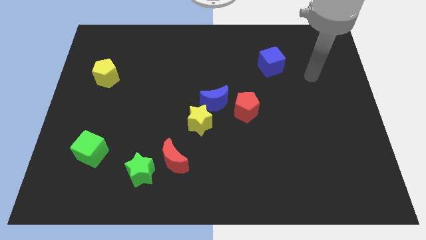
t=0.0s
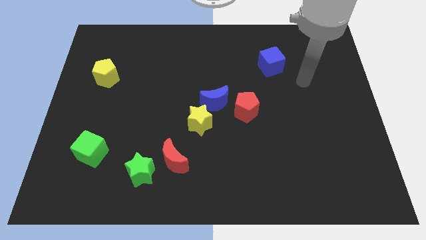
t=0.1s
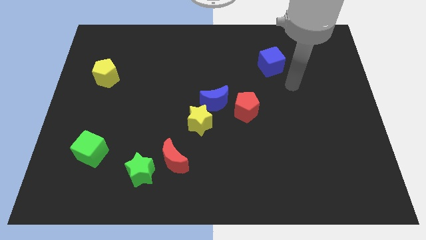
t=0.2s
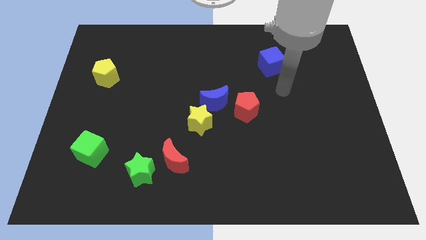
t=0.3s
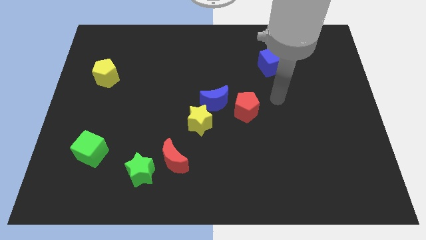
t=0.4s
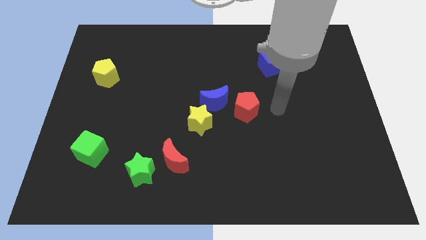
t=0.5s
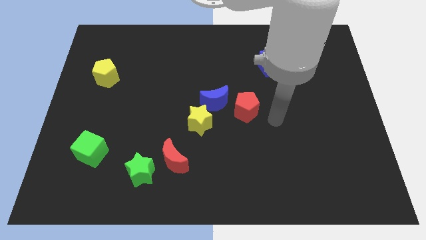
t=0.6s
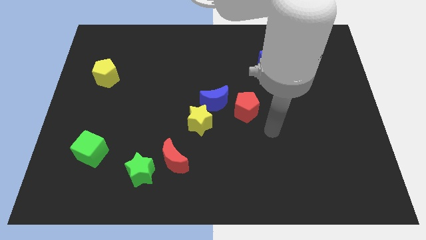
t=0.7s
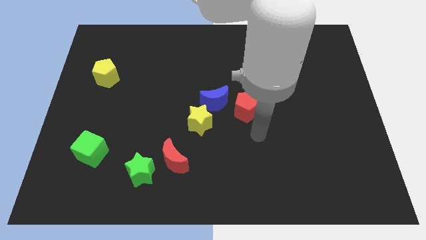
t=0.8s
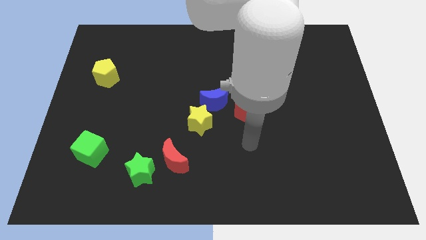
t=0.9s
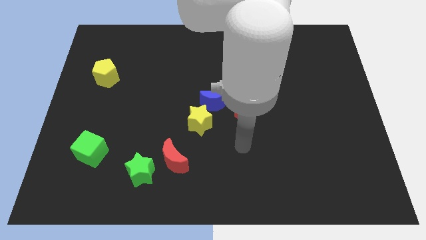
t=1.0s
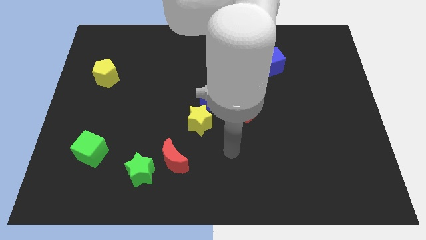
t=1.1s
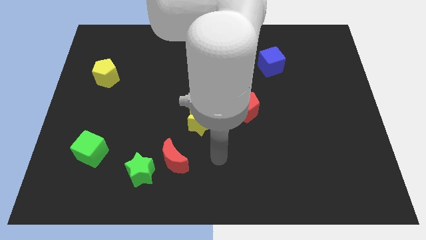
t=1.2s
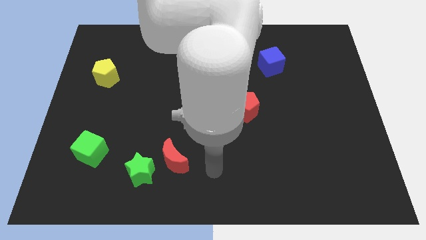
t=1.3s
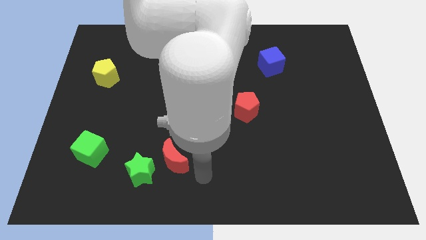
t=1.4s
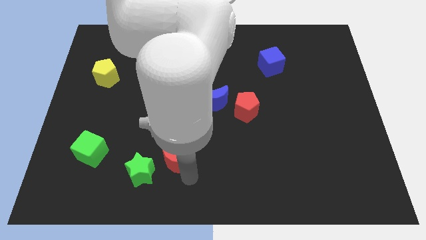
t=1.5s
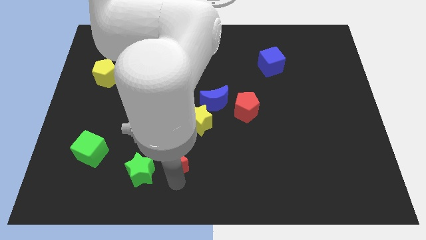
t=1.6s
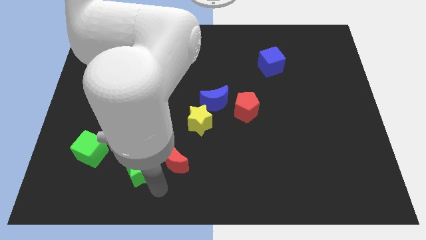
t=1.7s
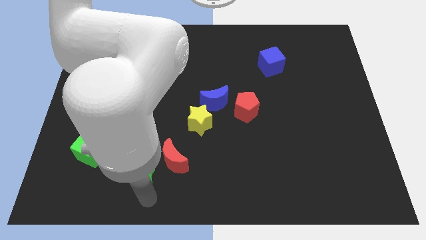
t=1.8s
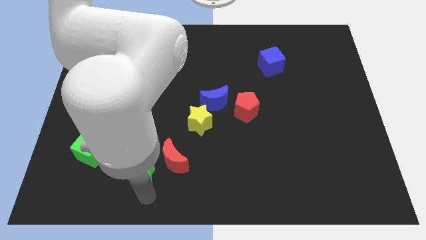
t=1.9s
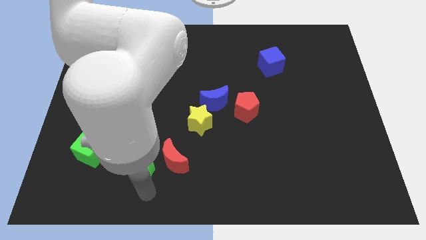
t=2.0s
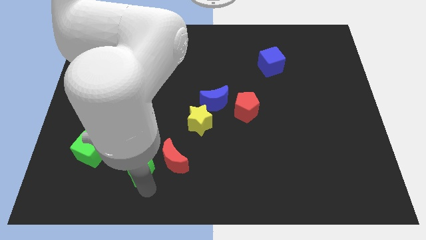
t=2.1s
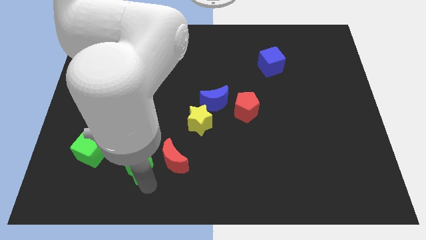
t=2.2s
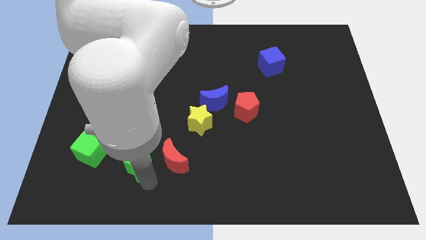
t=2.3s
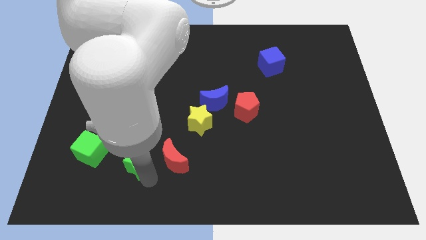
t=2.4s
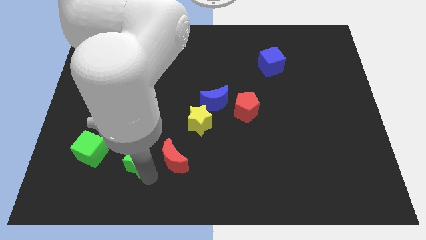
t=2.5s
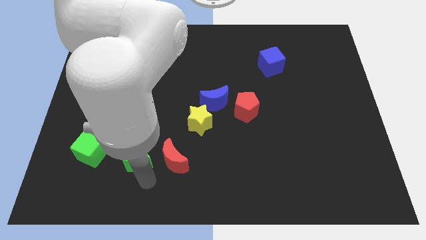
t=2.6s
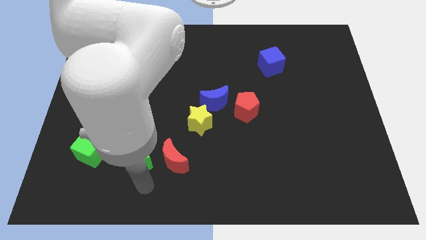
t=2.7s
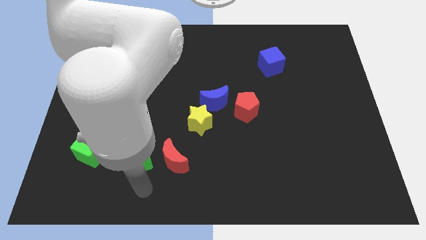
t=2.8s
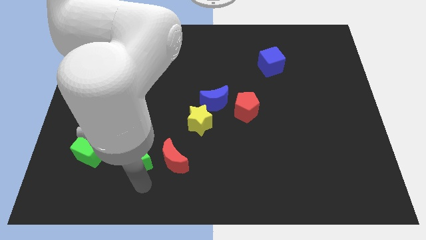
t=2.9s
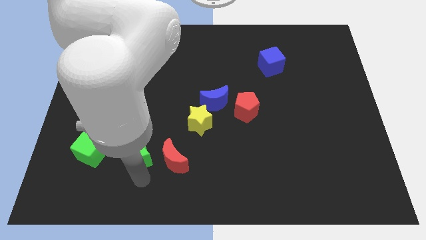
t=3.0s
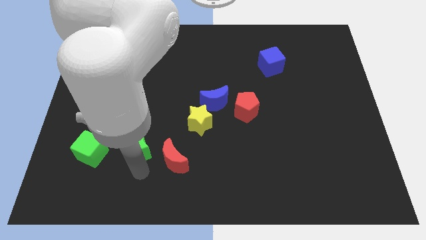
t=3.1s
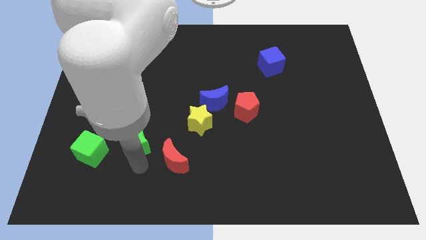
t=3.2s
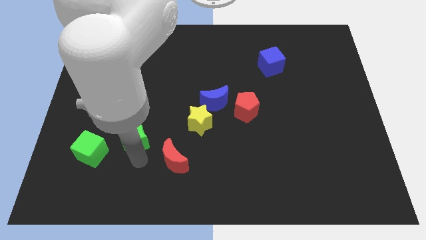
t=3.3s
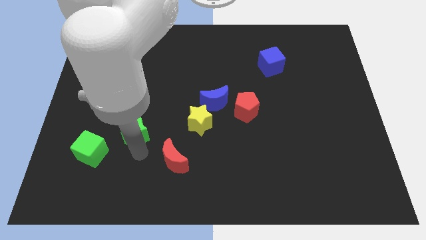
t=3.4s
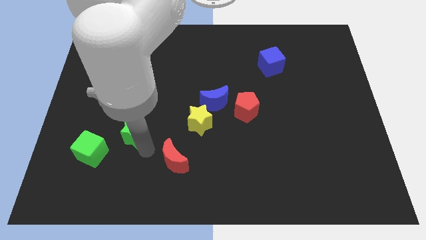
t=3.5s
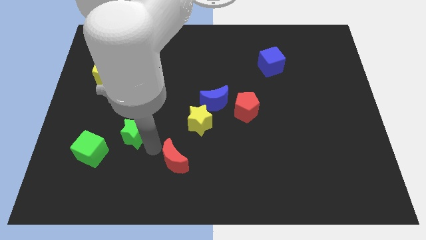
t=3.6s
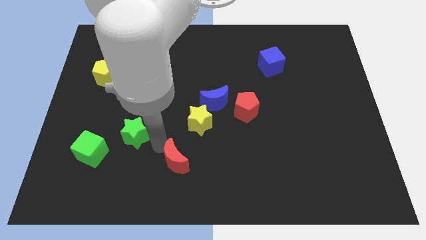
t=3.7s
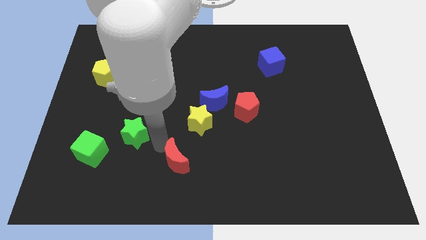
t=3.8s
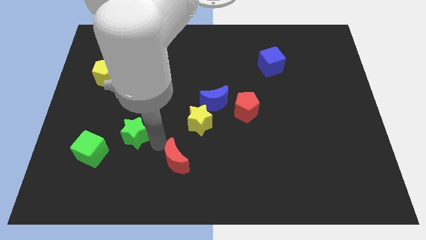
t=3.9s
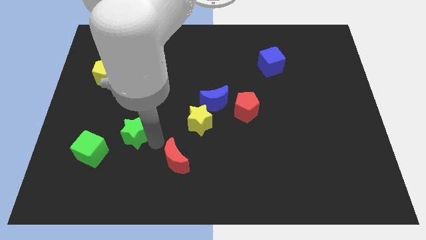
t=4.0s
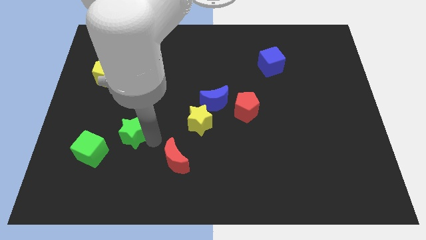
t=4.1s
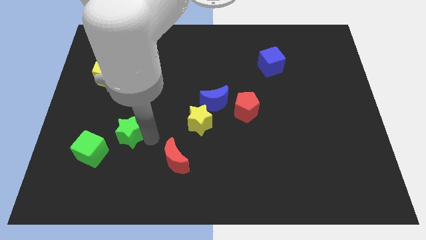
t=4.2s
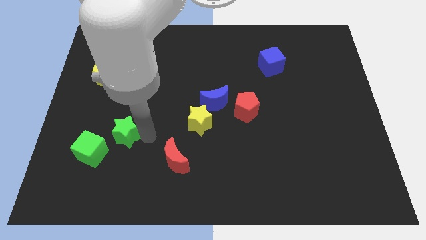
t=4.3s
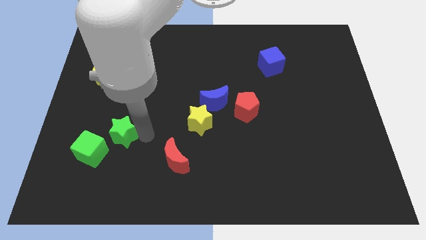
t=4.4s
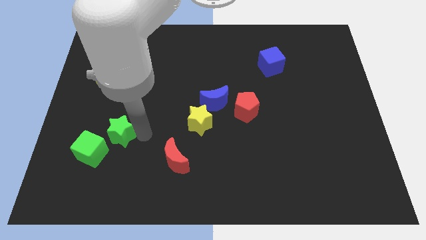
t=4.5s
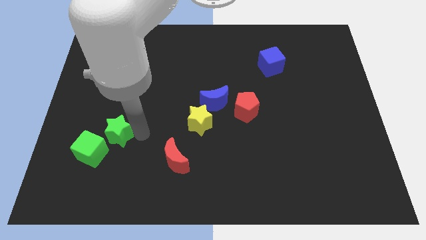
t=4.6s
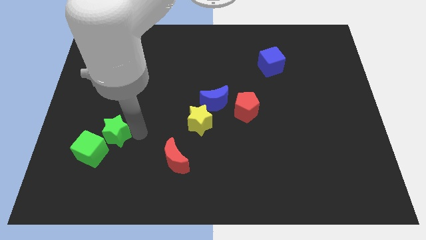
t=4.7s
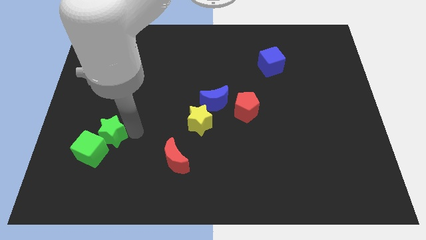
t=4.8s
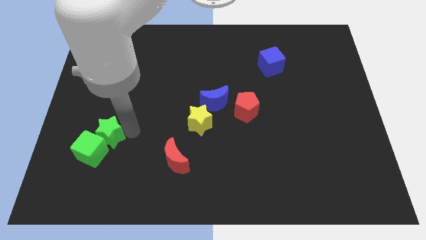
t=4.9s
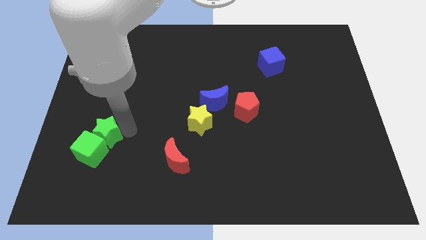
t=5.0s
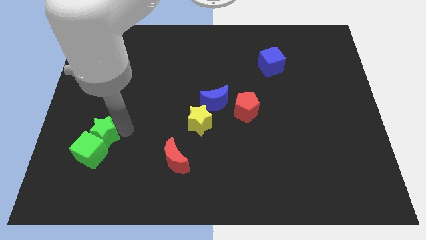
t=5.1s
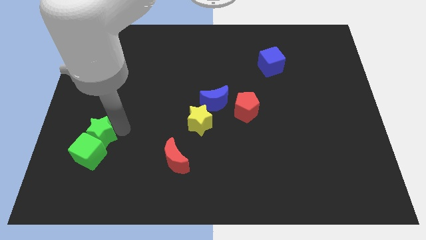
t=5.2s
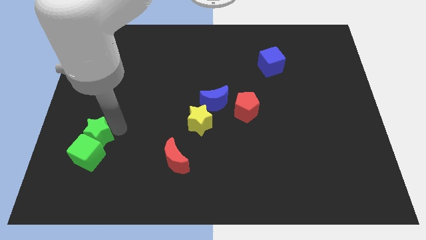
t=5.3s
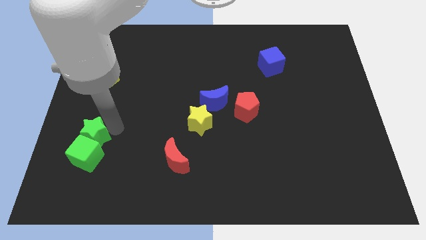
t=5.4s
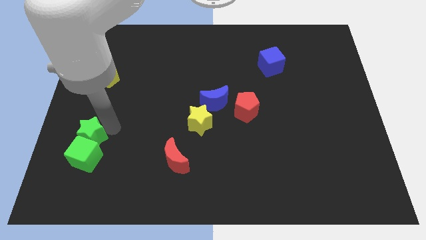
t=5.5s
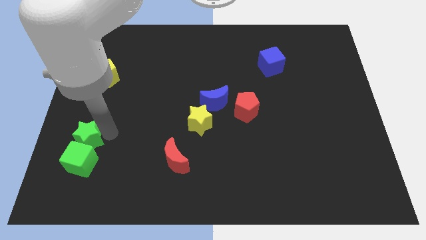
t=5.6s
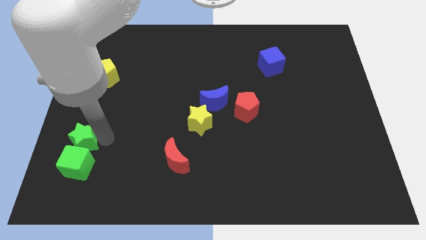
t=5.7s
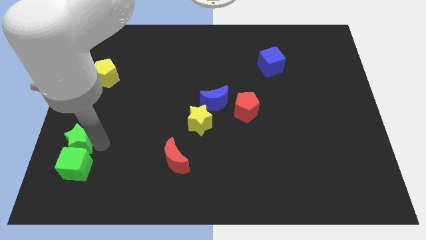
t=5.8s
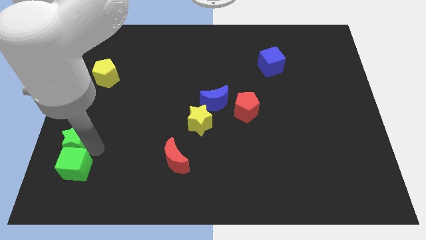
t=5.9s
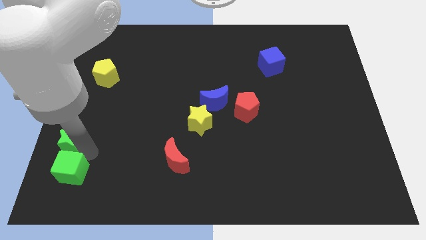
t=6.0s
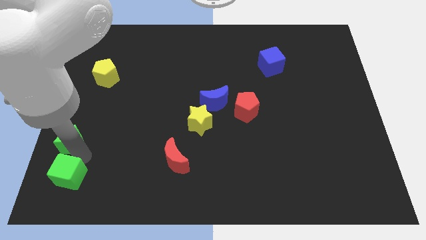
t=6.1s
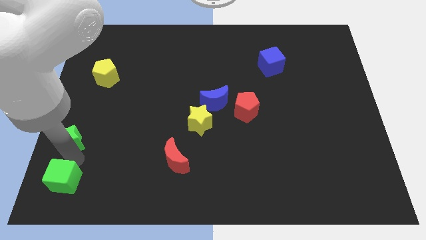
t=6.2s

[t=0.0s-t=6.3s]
move the green star to the left side of the board
